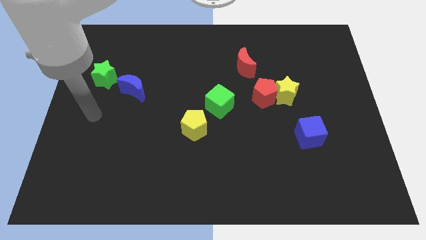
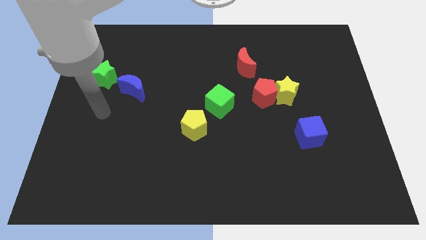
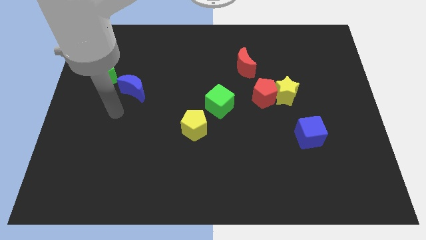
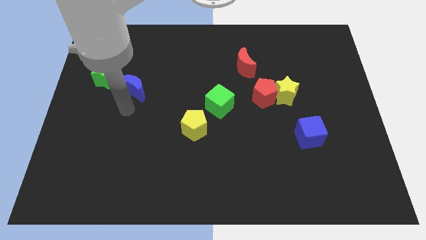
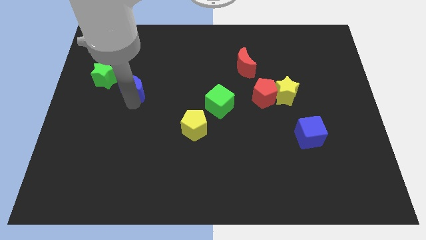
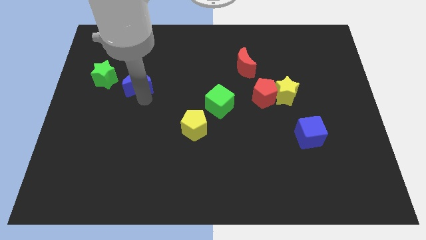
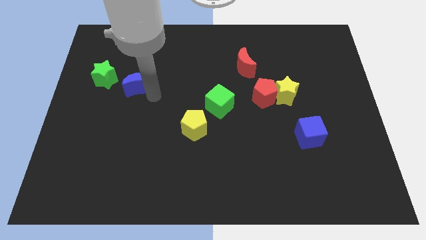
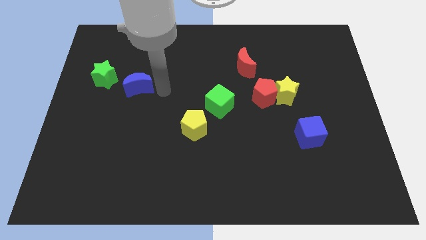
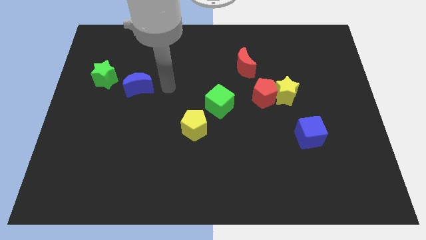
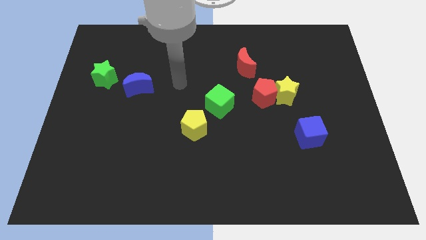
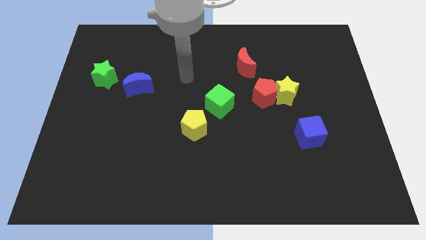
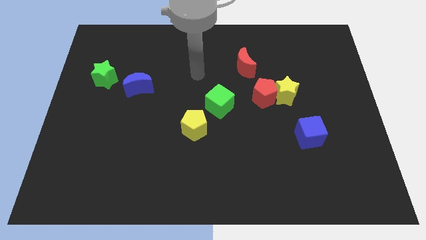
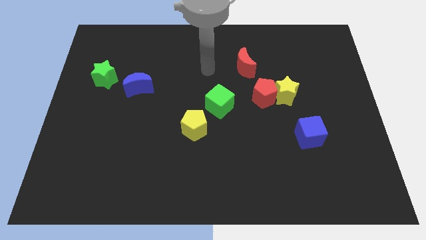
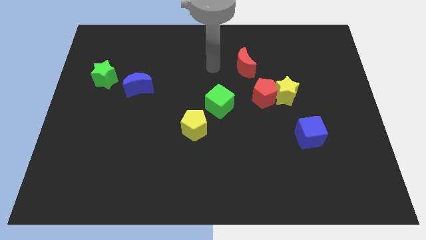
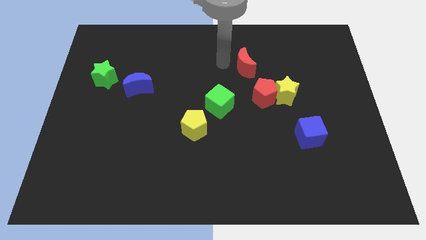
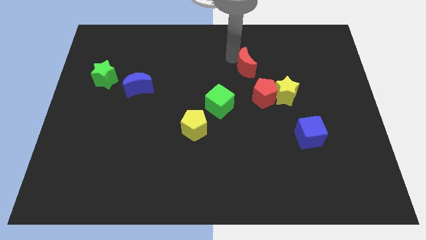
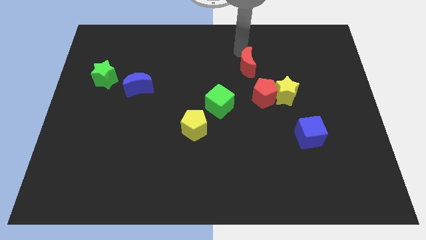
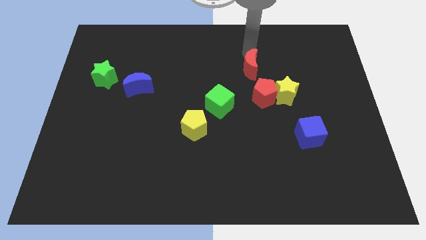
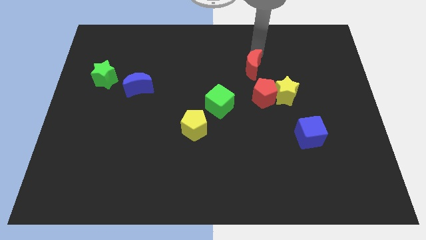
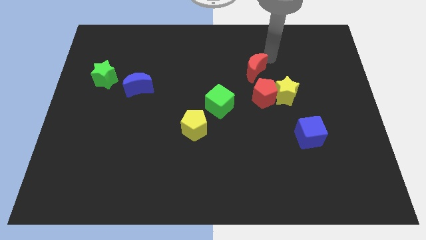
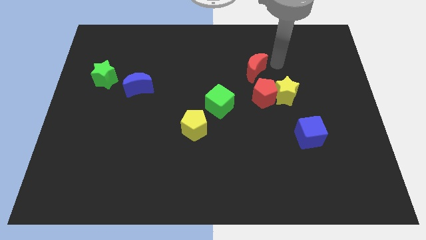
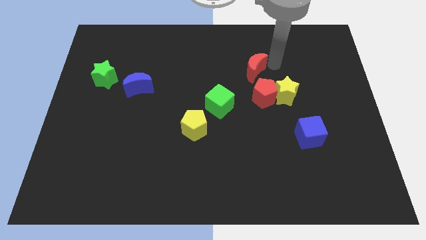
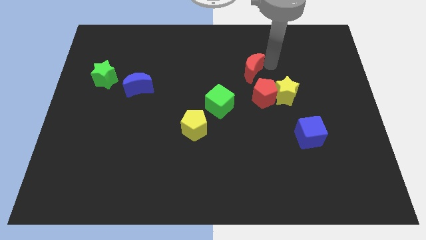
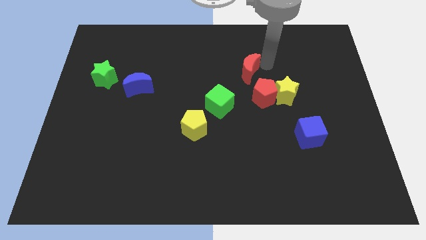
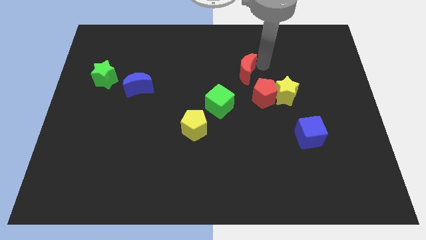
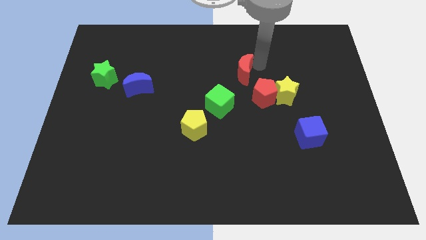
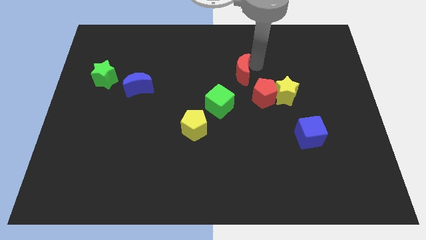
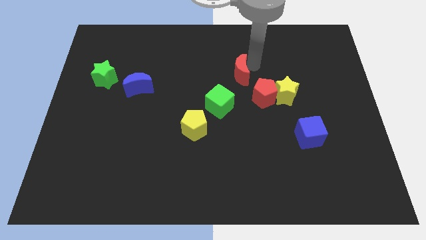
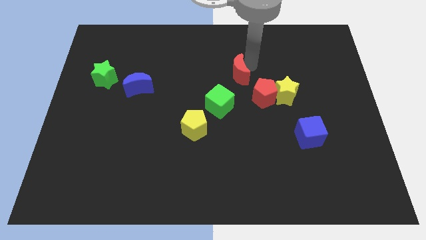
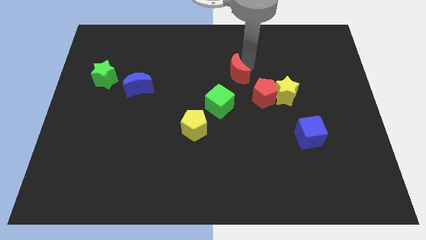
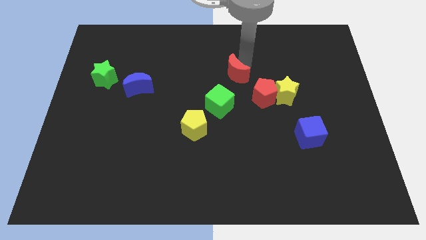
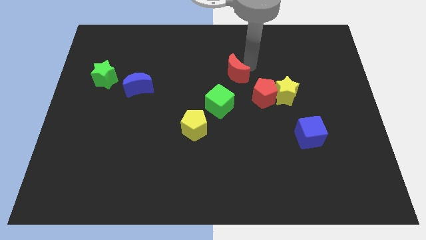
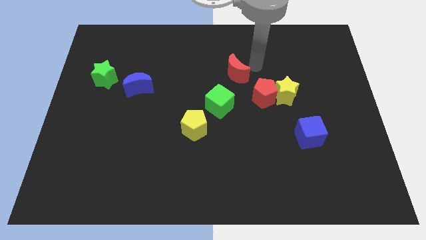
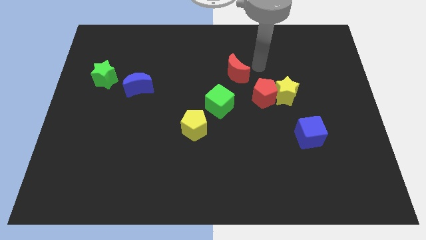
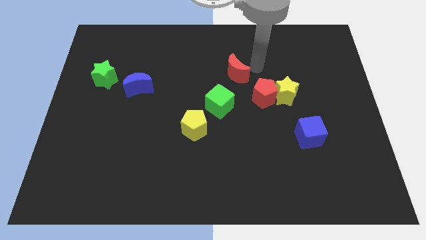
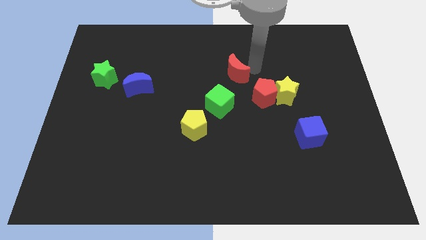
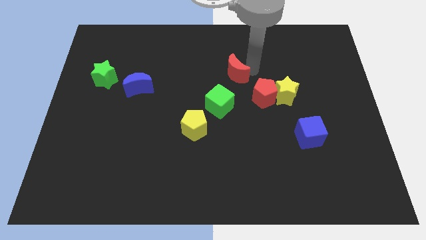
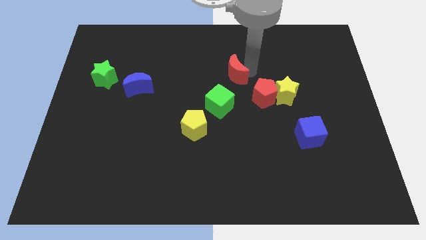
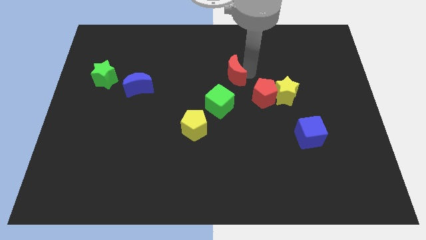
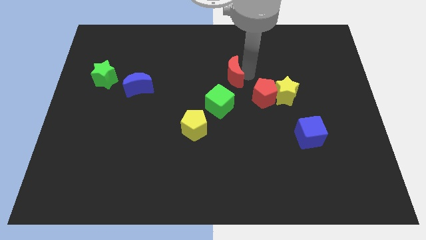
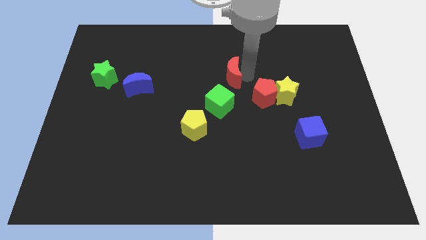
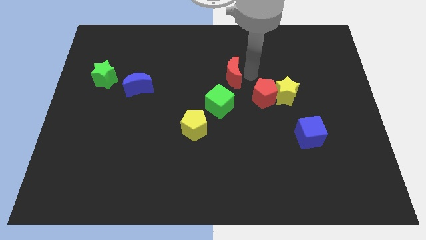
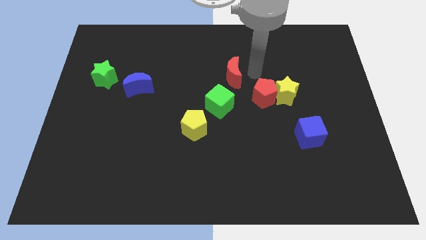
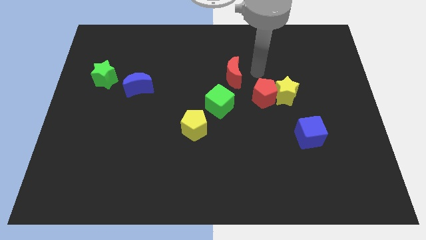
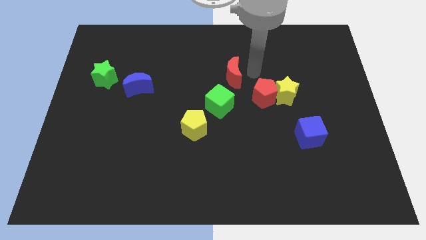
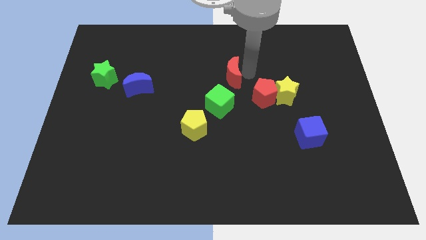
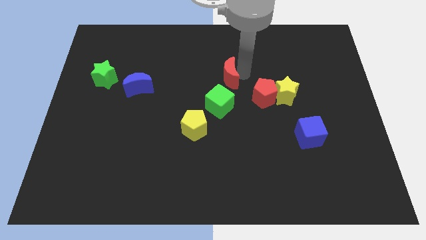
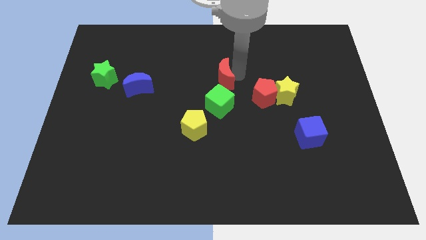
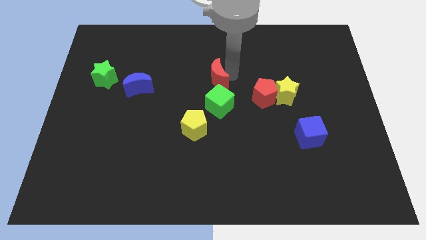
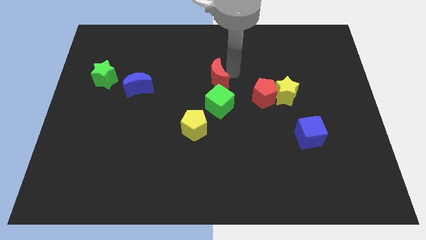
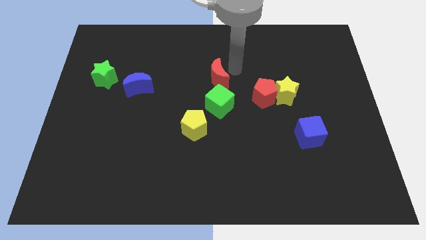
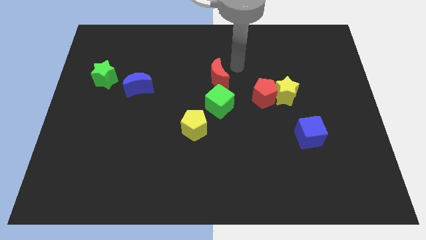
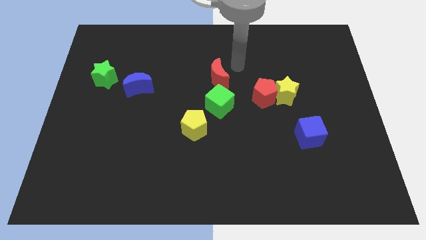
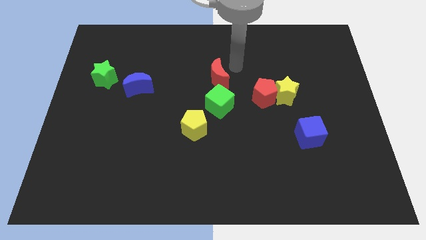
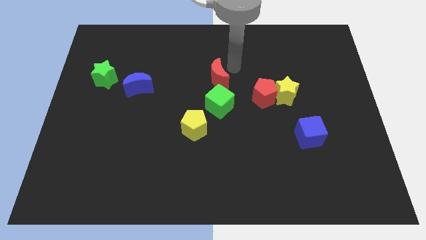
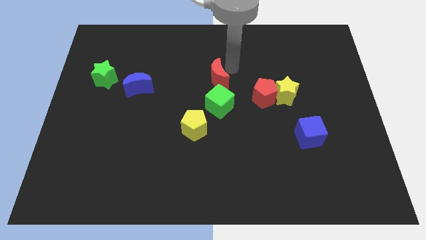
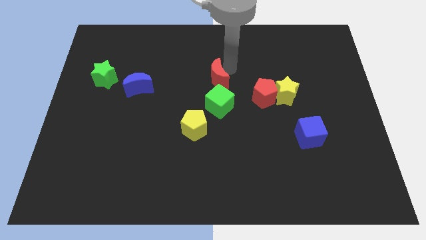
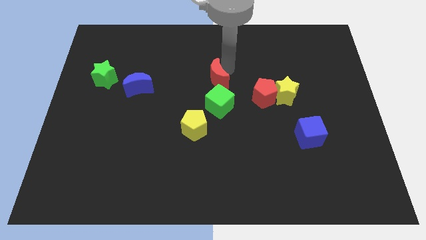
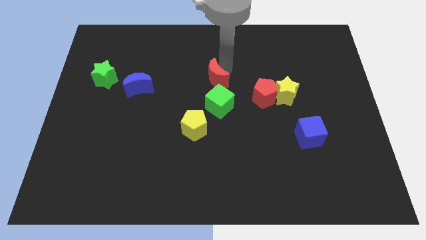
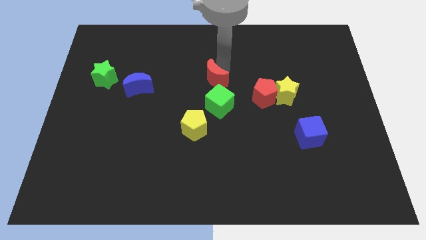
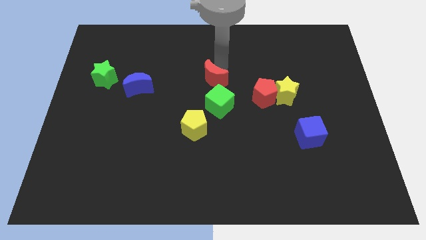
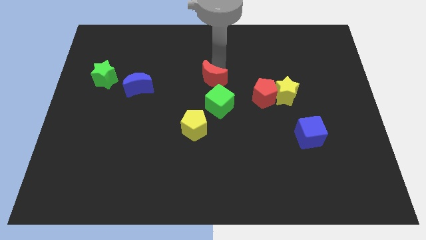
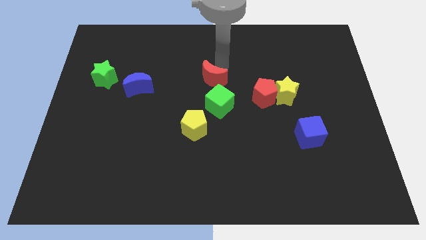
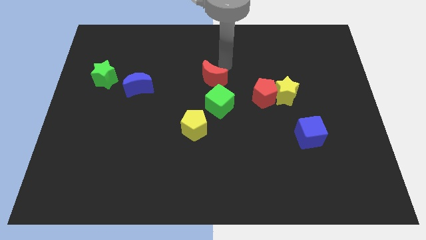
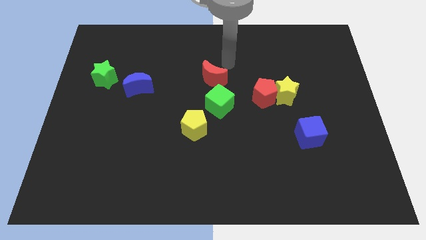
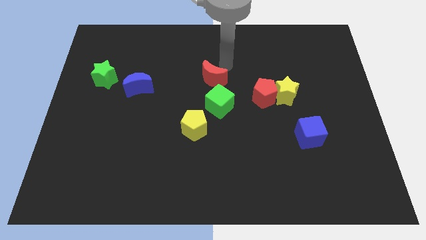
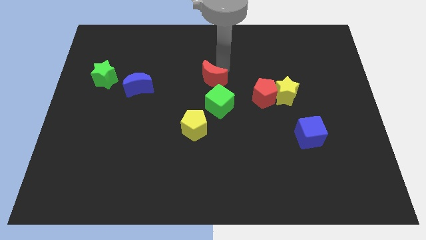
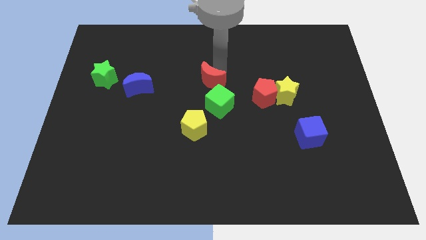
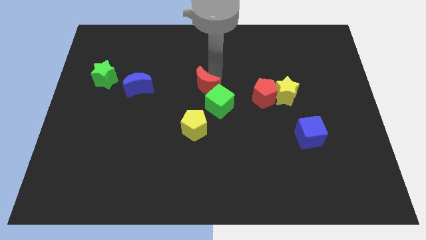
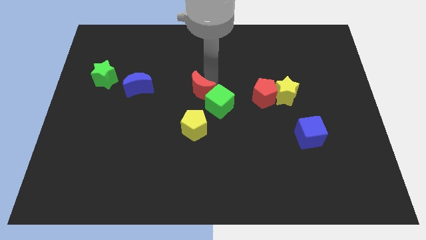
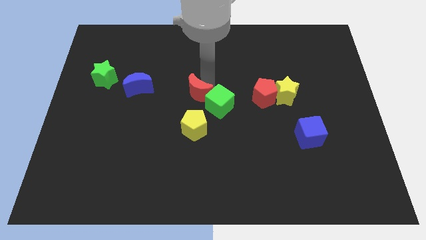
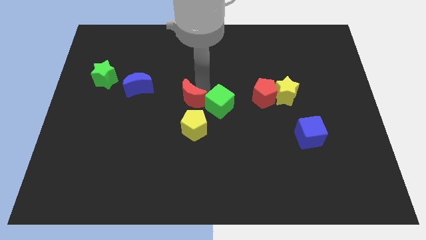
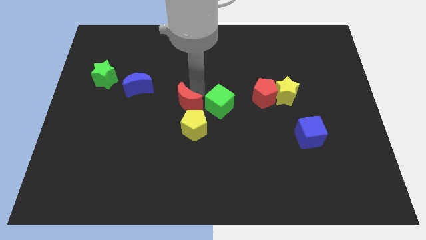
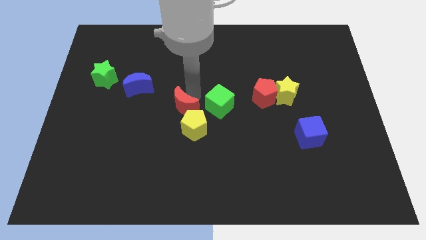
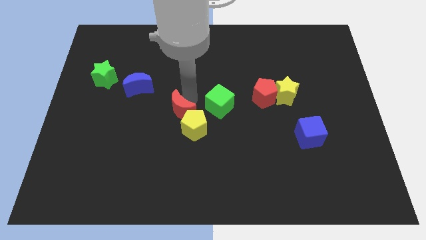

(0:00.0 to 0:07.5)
slide the red moon downwards and to the left

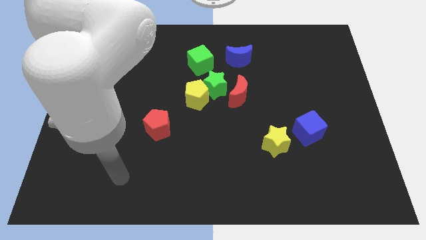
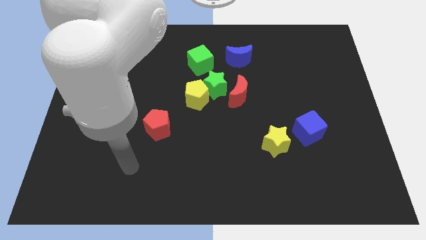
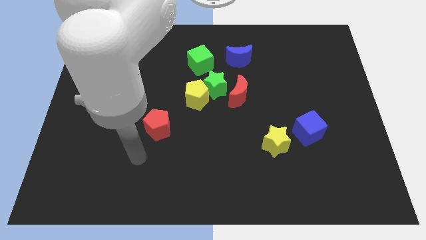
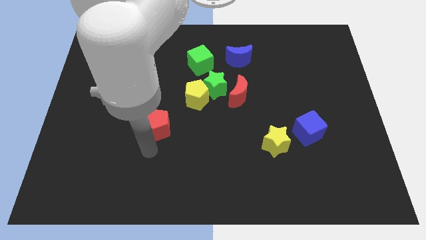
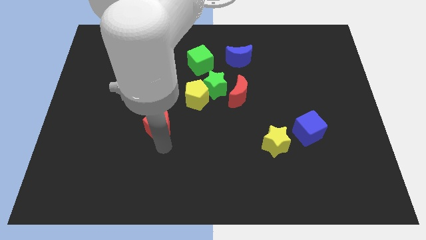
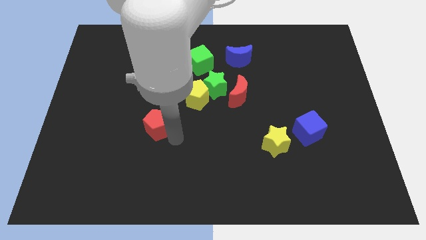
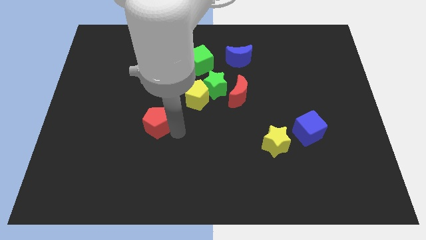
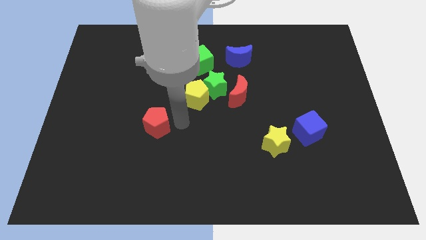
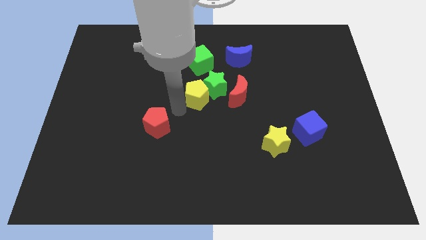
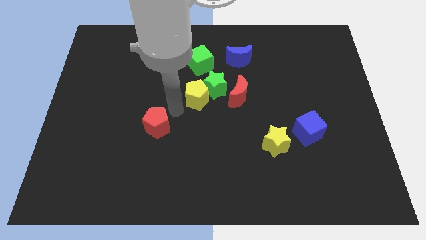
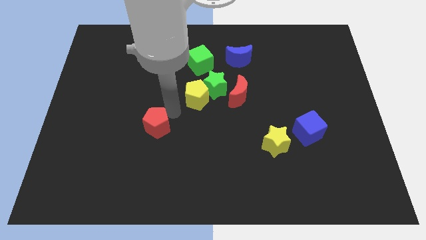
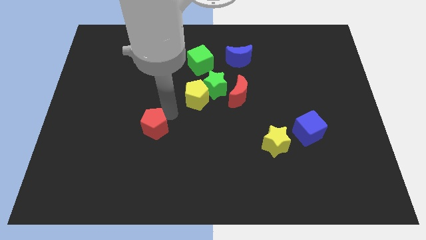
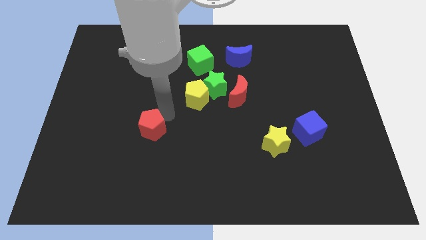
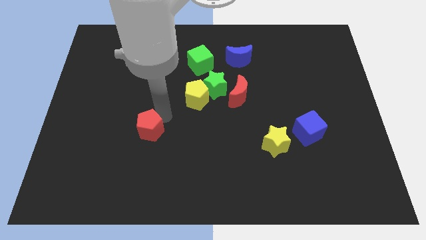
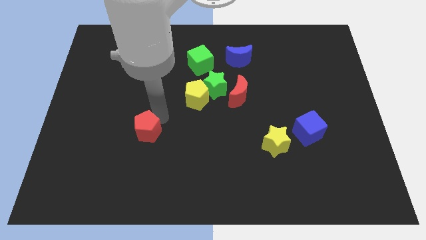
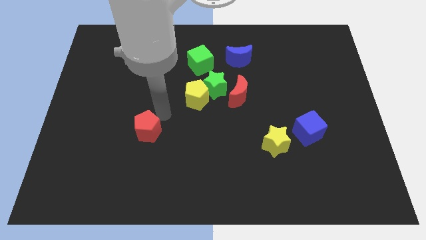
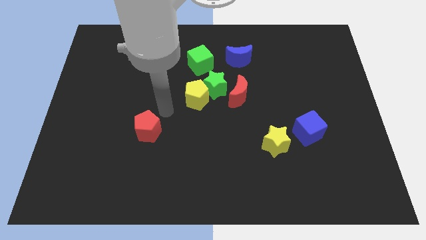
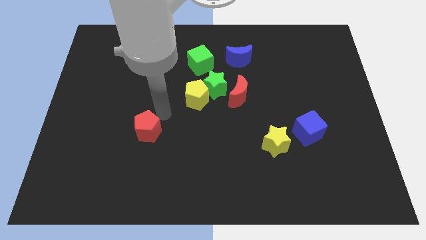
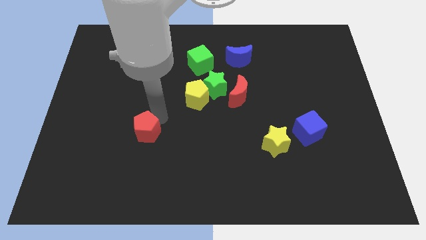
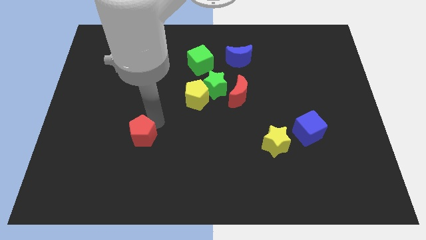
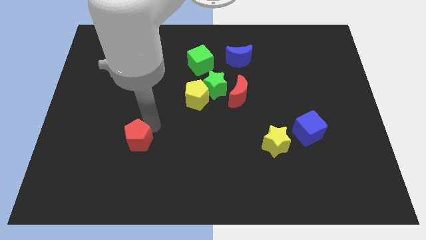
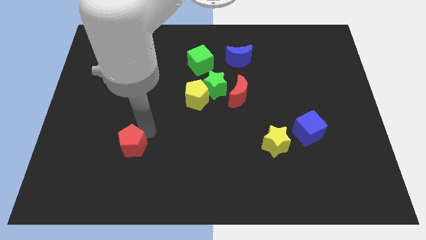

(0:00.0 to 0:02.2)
move the red pentagon downwards and to the left diagonally a little
